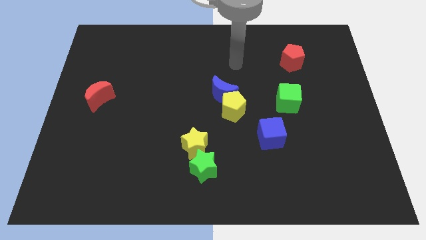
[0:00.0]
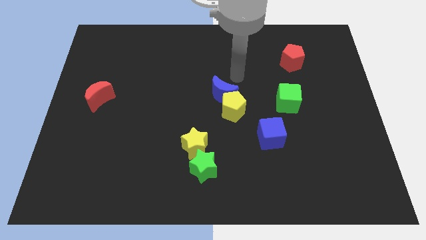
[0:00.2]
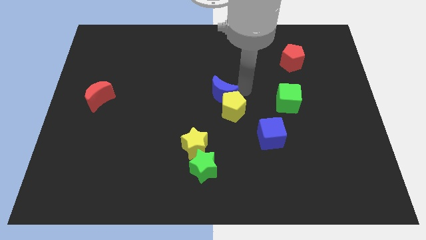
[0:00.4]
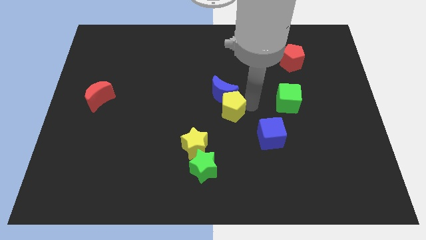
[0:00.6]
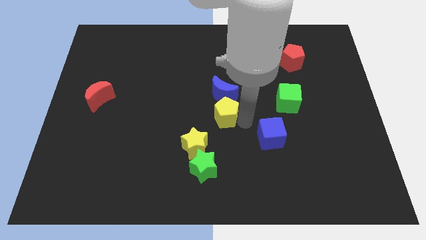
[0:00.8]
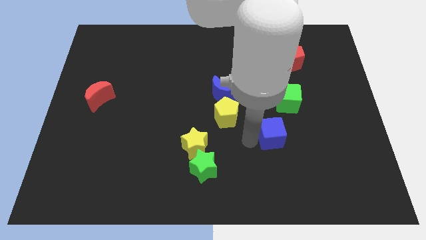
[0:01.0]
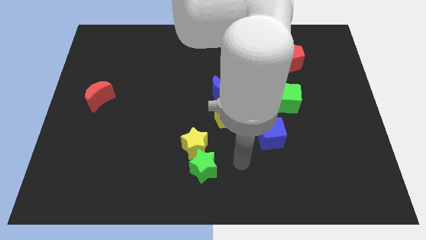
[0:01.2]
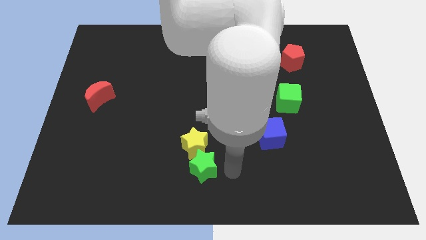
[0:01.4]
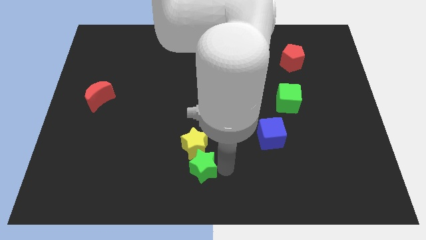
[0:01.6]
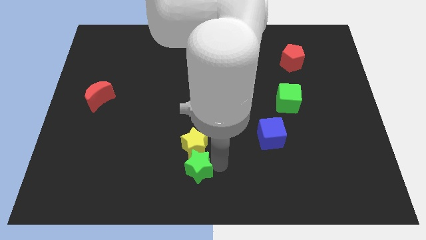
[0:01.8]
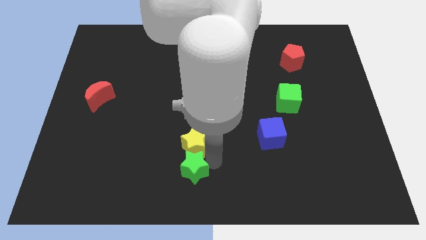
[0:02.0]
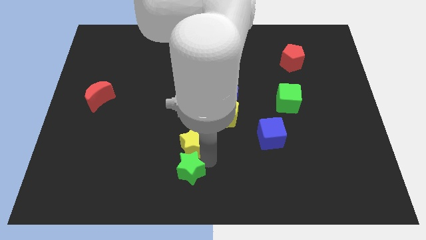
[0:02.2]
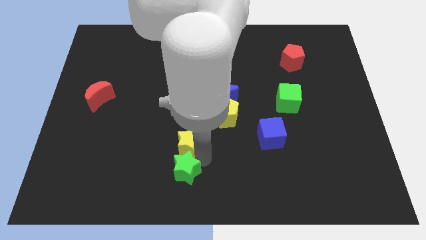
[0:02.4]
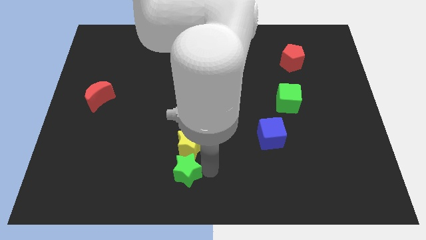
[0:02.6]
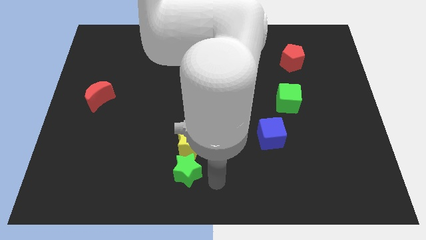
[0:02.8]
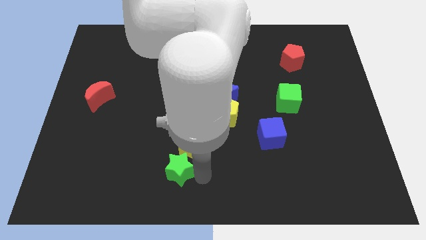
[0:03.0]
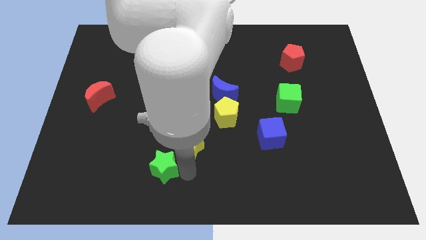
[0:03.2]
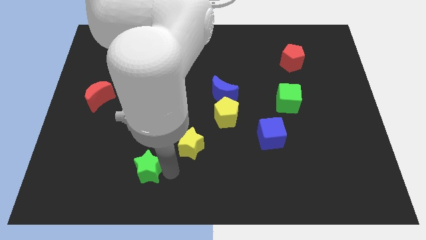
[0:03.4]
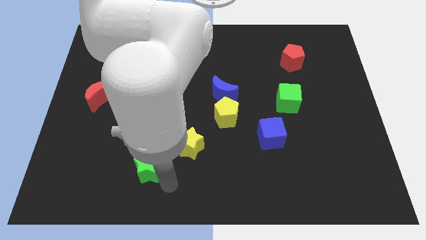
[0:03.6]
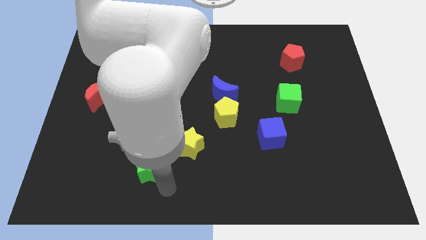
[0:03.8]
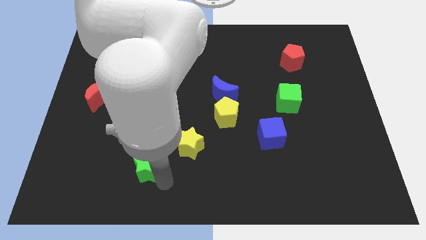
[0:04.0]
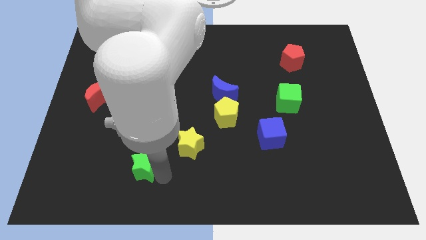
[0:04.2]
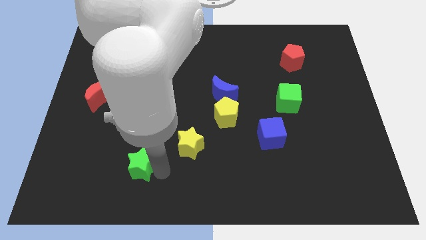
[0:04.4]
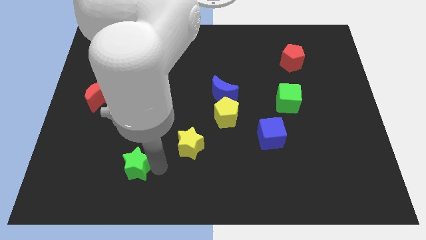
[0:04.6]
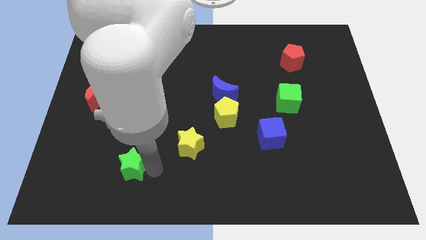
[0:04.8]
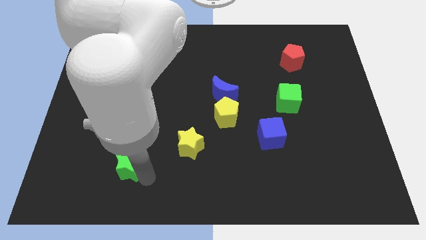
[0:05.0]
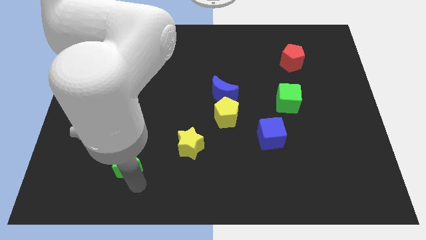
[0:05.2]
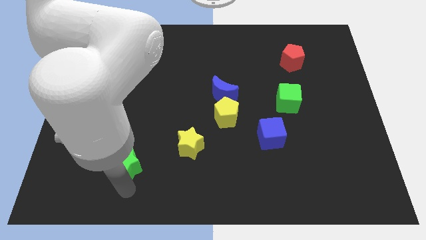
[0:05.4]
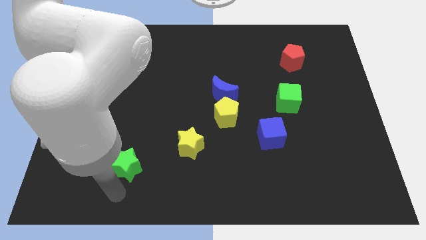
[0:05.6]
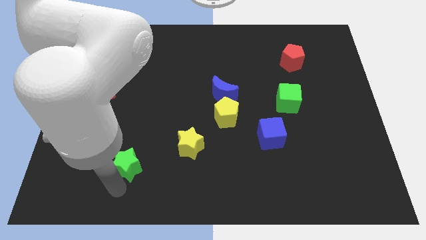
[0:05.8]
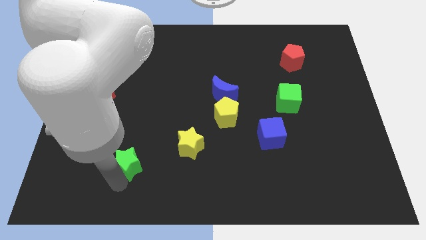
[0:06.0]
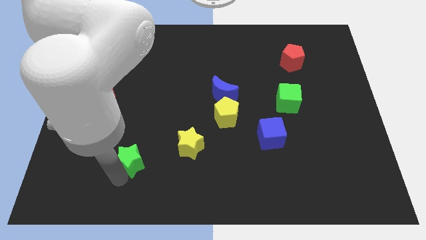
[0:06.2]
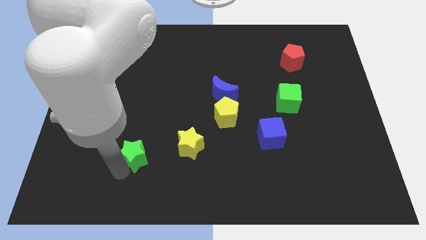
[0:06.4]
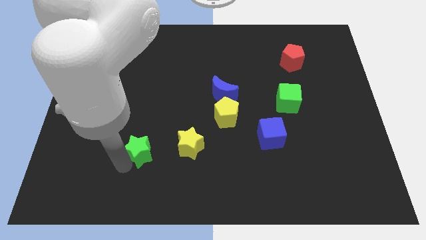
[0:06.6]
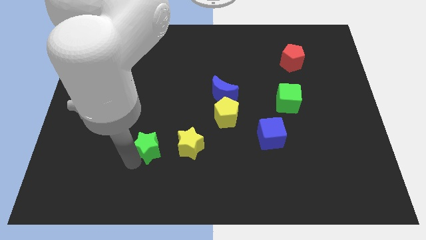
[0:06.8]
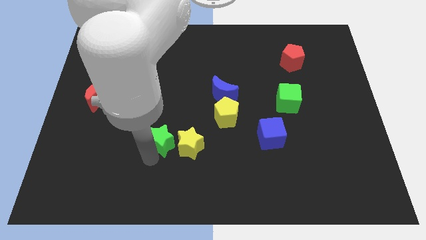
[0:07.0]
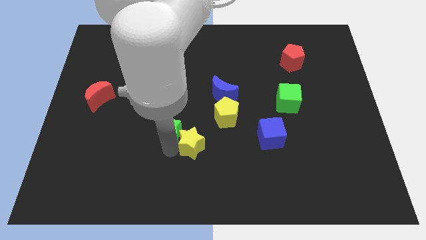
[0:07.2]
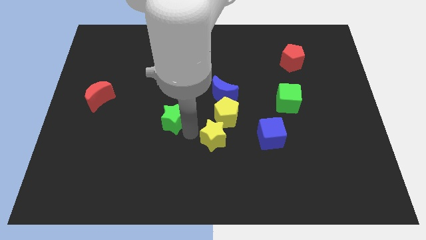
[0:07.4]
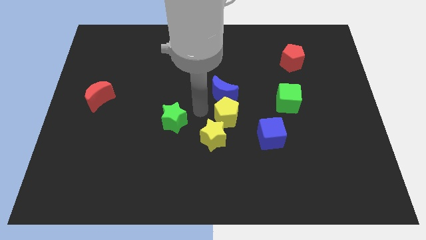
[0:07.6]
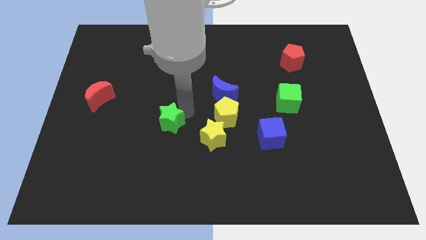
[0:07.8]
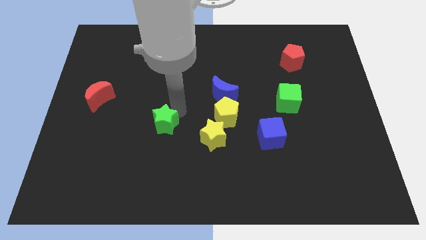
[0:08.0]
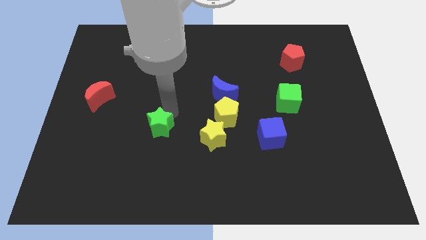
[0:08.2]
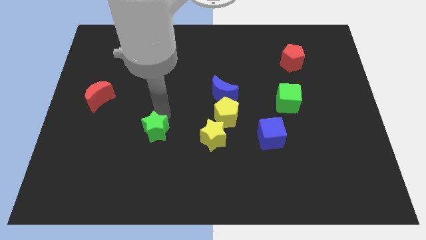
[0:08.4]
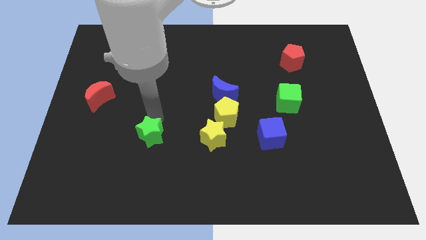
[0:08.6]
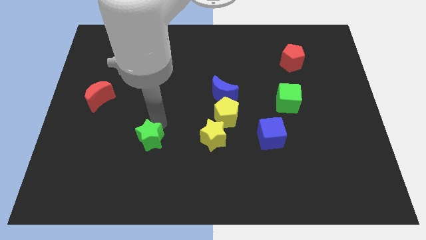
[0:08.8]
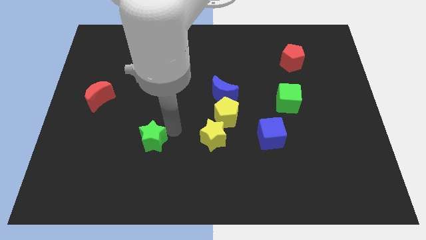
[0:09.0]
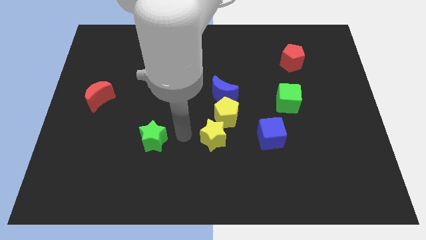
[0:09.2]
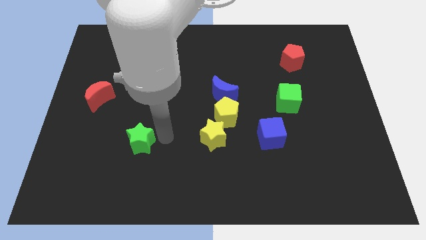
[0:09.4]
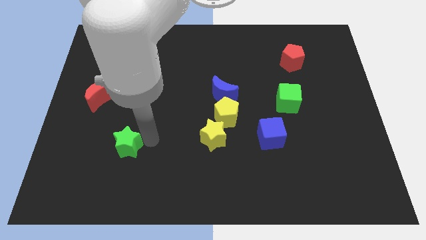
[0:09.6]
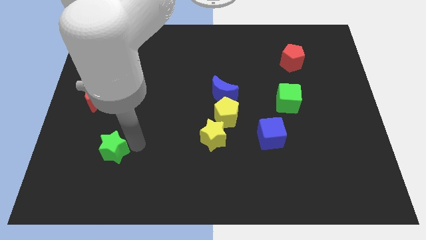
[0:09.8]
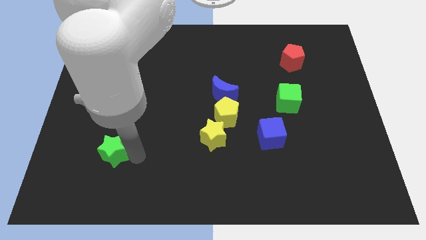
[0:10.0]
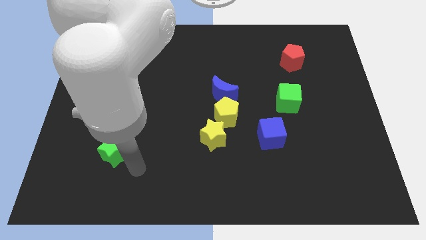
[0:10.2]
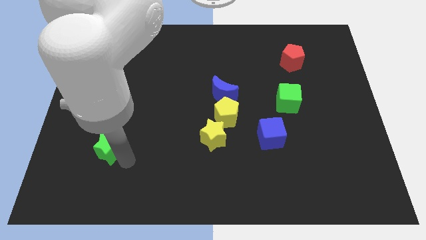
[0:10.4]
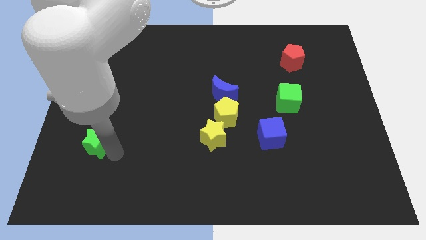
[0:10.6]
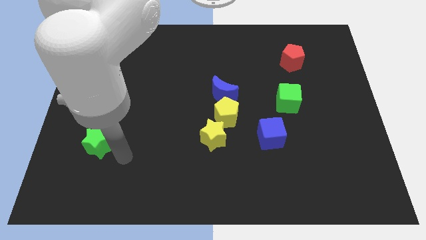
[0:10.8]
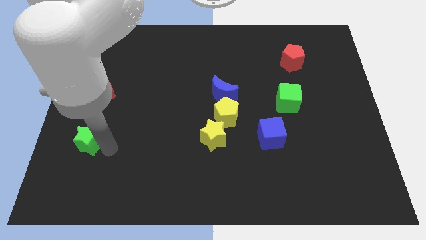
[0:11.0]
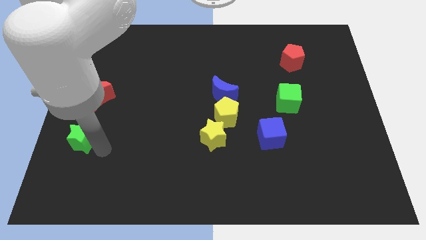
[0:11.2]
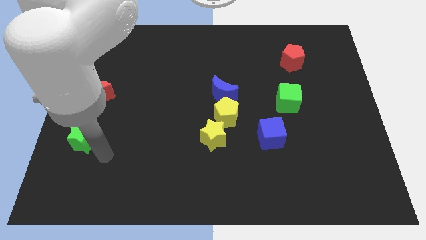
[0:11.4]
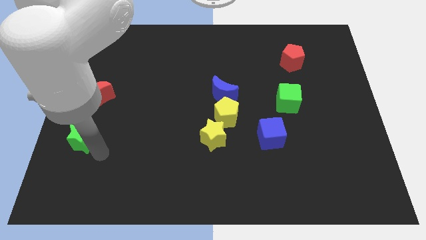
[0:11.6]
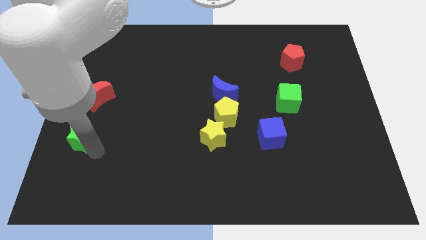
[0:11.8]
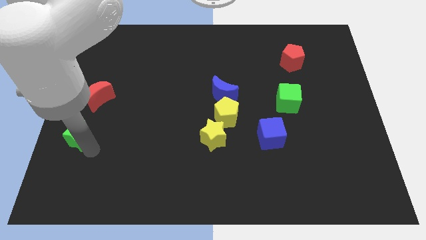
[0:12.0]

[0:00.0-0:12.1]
move the green star to the left side
